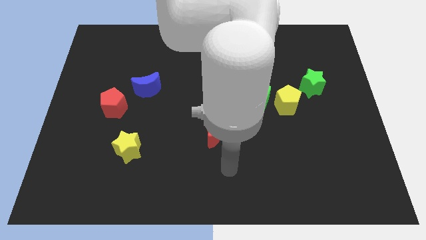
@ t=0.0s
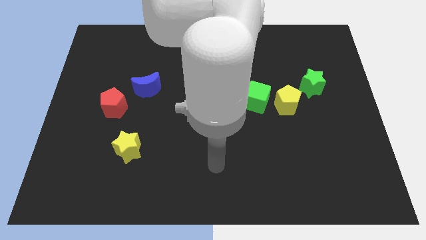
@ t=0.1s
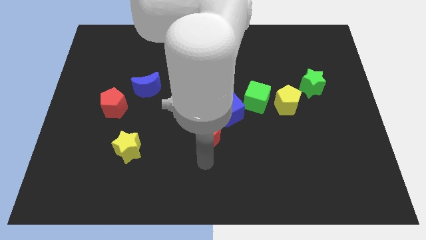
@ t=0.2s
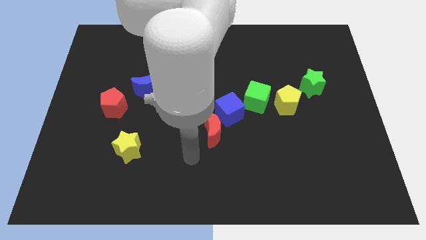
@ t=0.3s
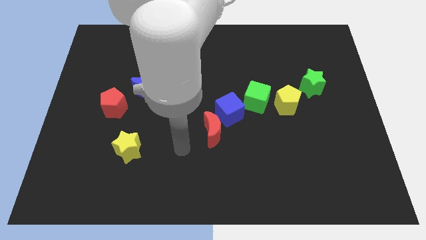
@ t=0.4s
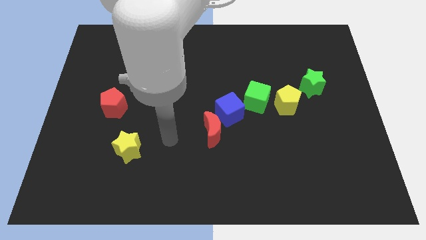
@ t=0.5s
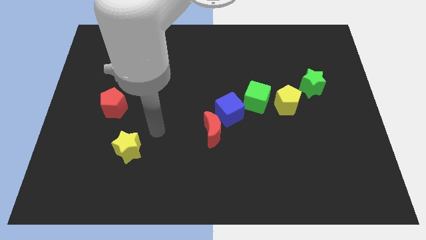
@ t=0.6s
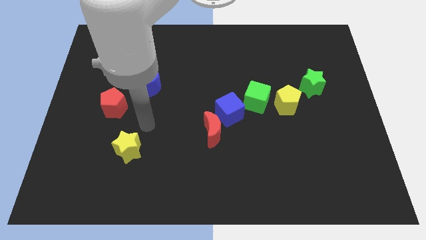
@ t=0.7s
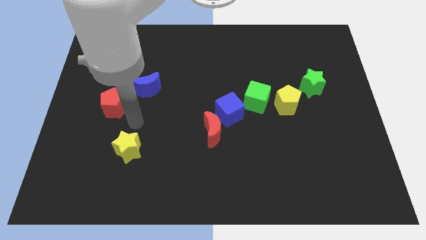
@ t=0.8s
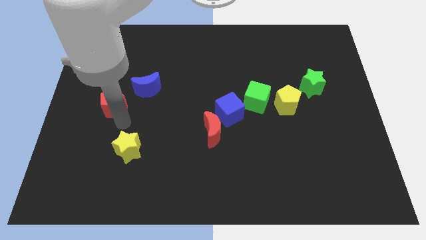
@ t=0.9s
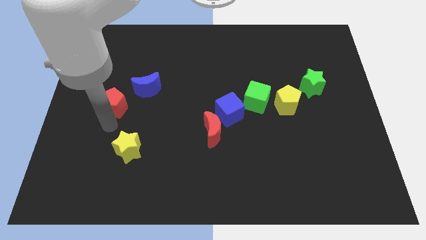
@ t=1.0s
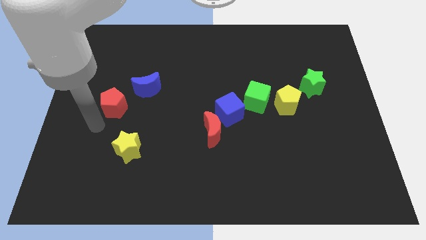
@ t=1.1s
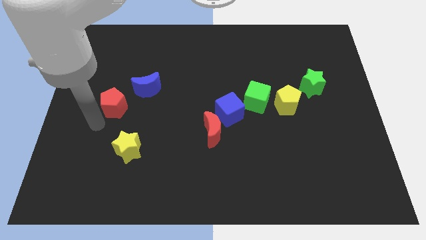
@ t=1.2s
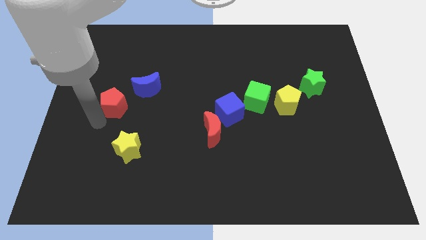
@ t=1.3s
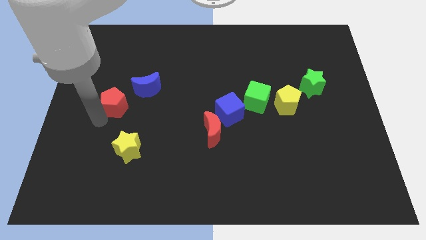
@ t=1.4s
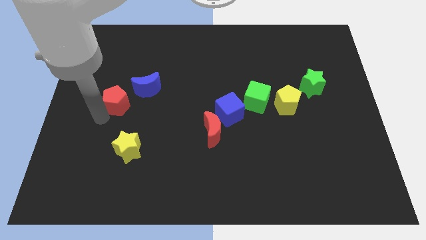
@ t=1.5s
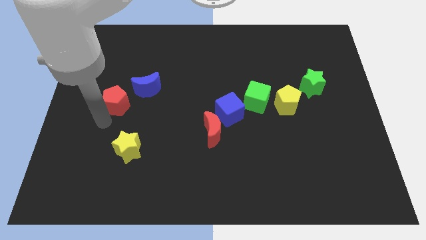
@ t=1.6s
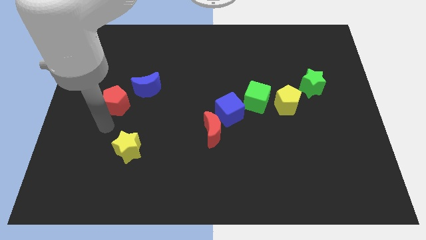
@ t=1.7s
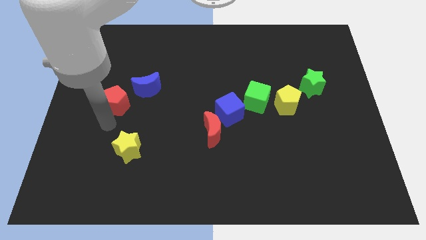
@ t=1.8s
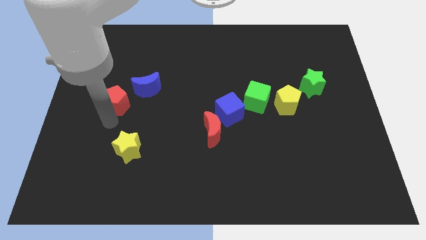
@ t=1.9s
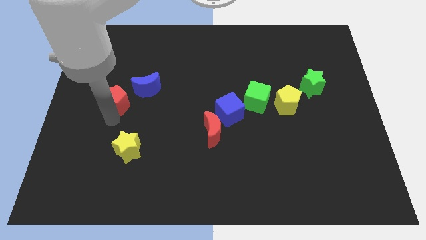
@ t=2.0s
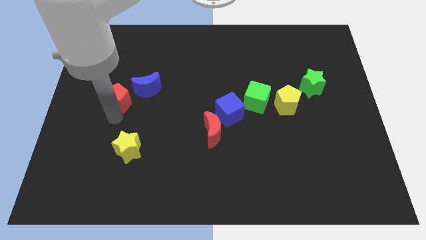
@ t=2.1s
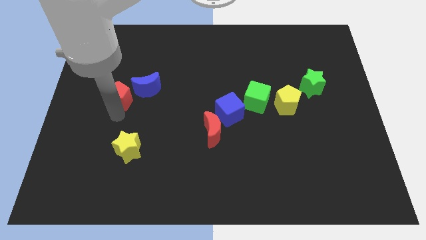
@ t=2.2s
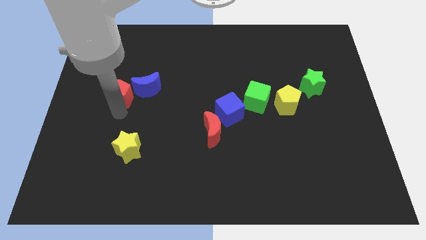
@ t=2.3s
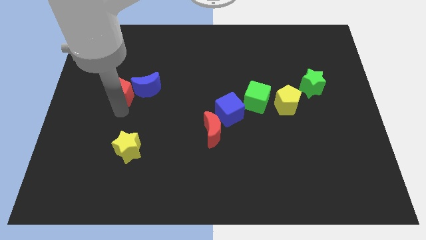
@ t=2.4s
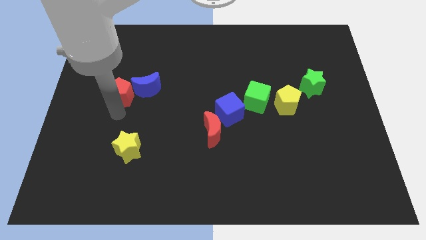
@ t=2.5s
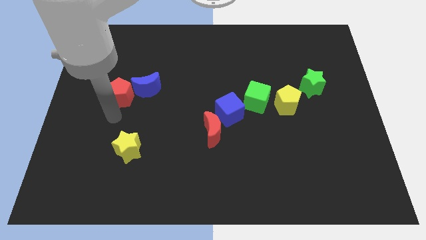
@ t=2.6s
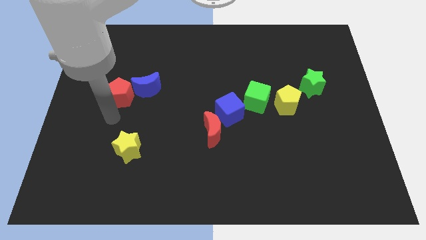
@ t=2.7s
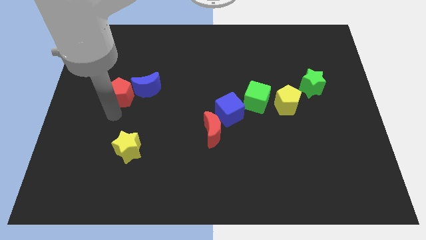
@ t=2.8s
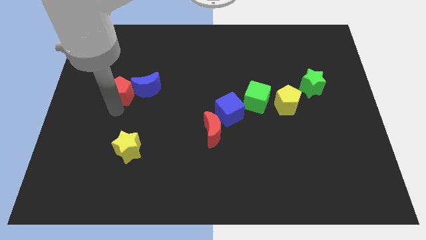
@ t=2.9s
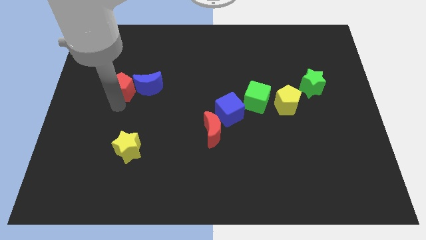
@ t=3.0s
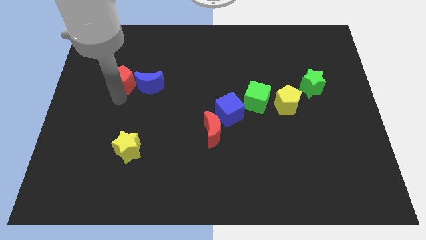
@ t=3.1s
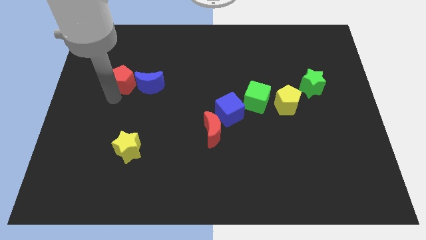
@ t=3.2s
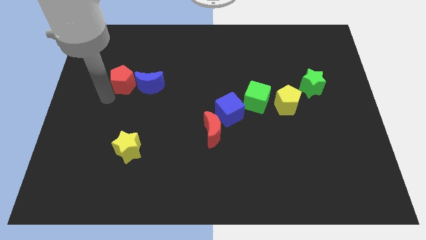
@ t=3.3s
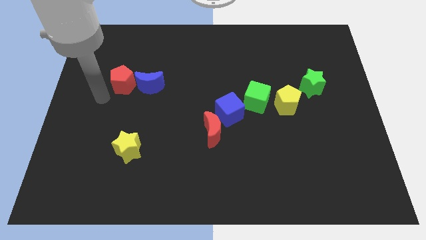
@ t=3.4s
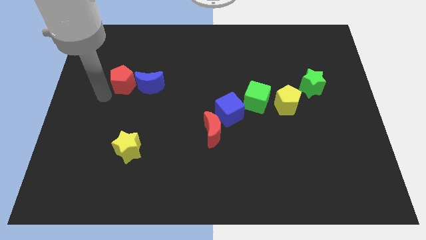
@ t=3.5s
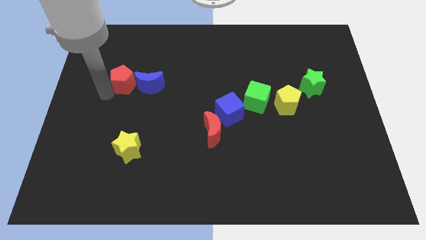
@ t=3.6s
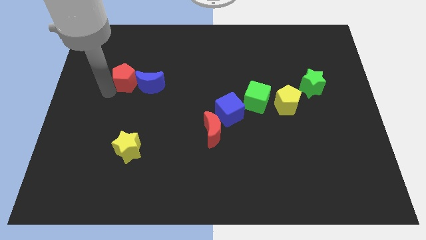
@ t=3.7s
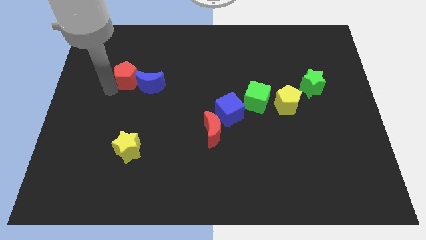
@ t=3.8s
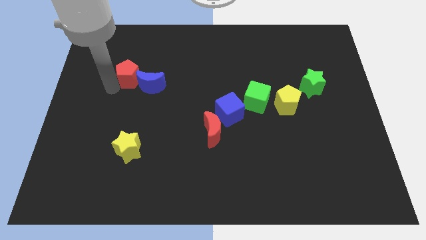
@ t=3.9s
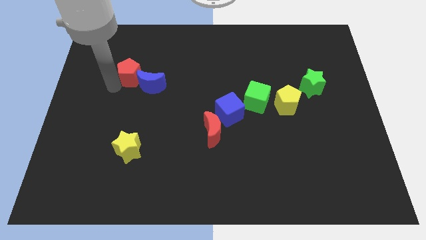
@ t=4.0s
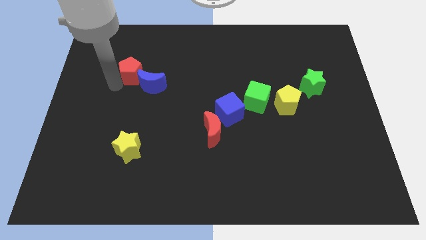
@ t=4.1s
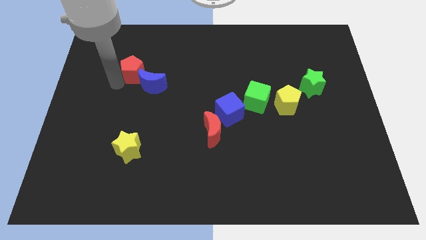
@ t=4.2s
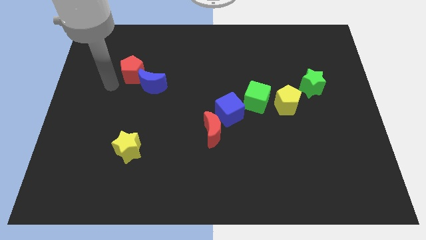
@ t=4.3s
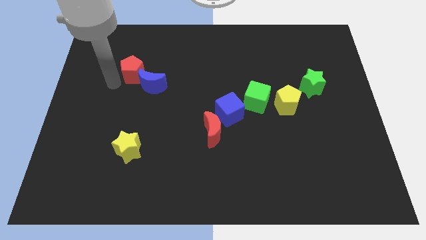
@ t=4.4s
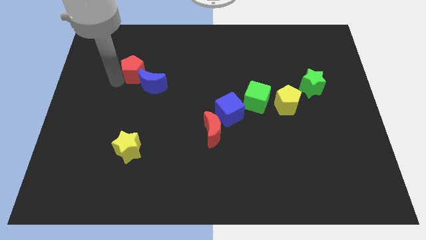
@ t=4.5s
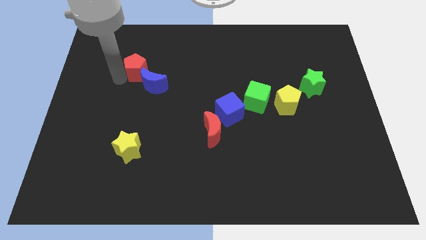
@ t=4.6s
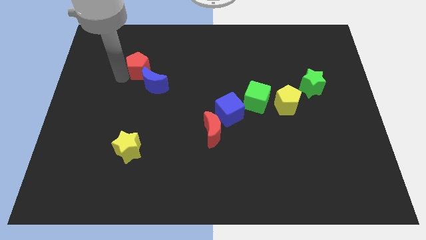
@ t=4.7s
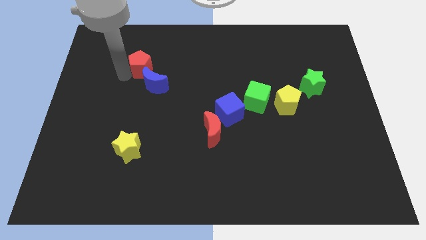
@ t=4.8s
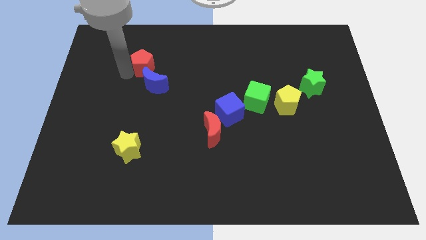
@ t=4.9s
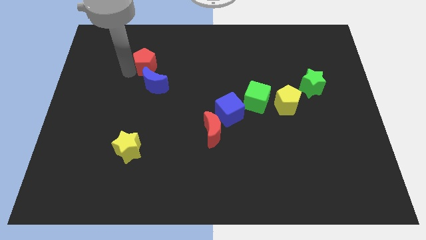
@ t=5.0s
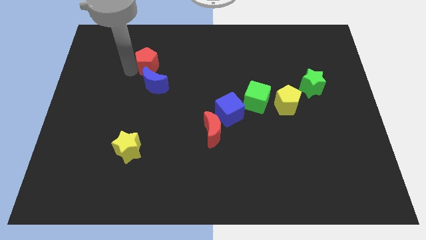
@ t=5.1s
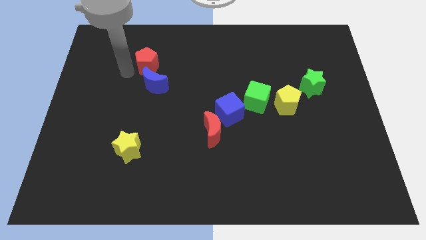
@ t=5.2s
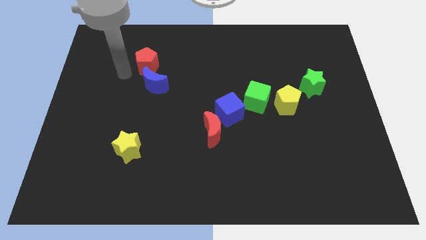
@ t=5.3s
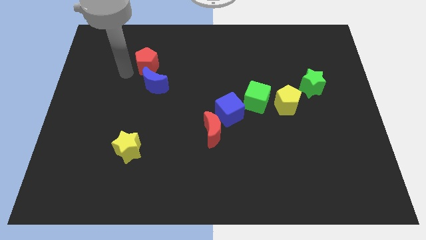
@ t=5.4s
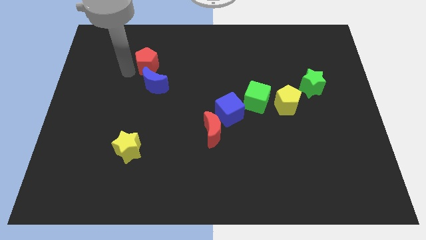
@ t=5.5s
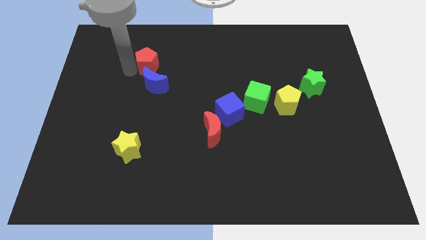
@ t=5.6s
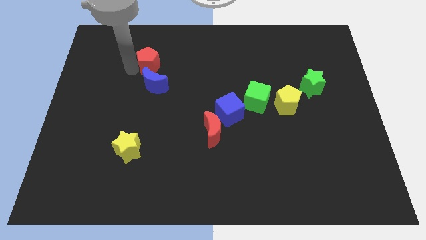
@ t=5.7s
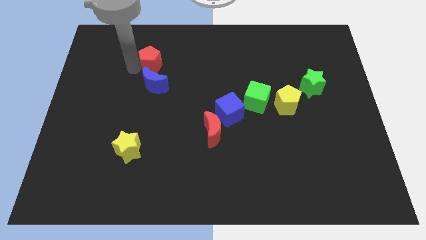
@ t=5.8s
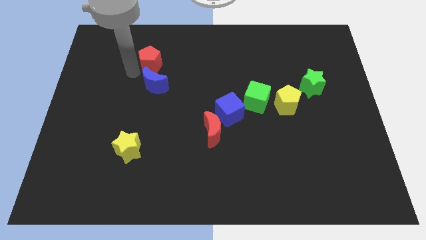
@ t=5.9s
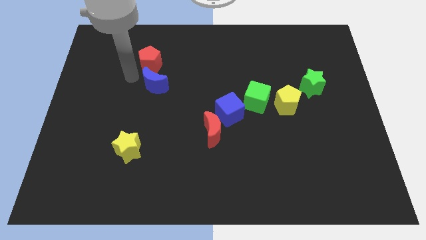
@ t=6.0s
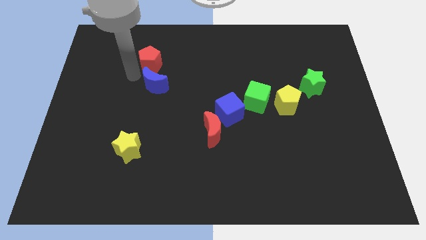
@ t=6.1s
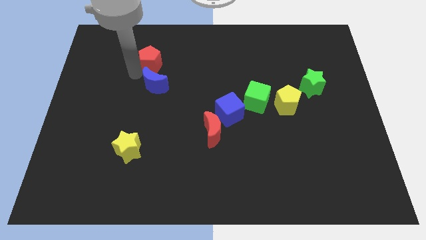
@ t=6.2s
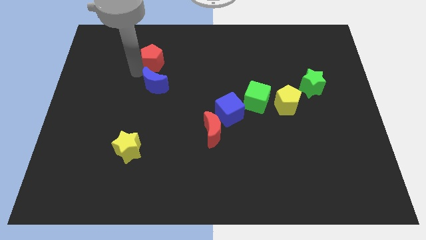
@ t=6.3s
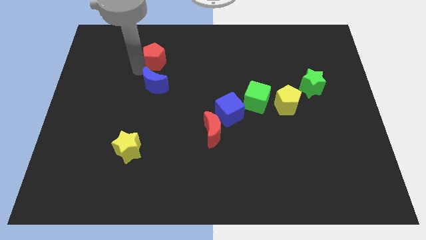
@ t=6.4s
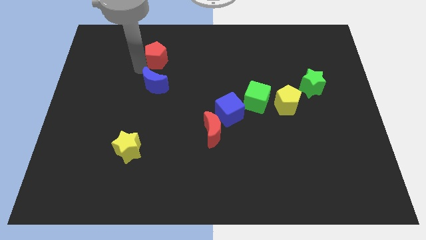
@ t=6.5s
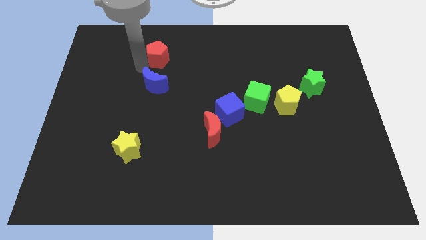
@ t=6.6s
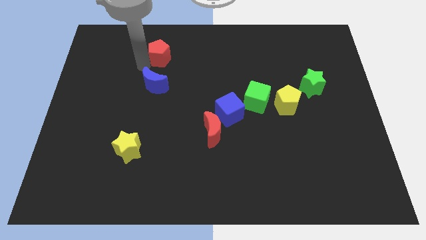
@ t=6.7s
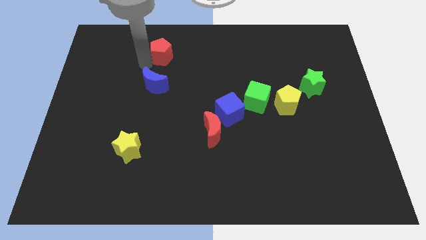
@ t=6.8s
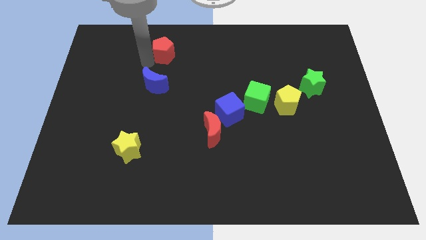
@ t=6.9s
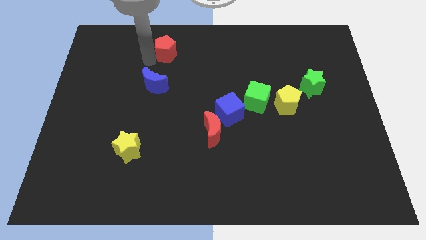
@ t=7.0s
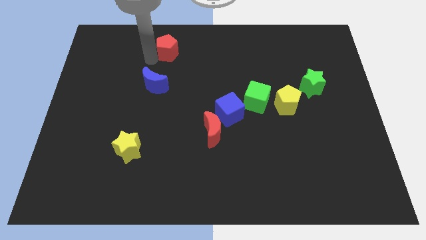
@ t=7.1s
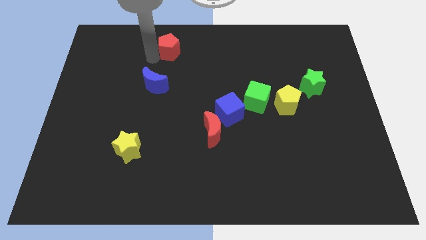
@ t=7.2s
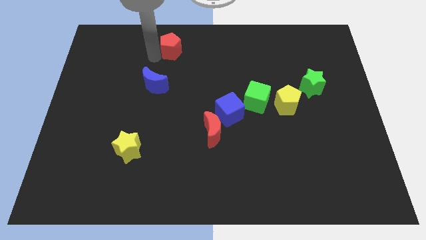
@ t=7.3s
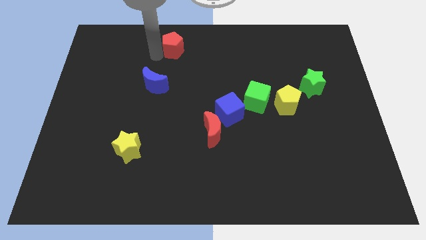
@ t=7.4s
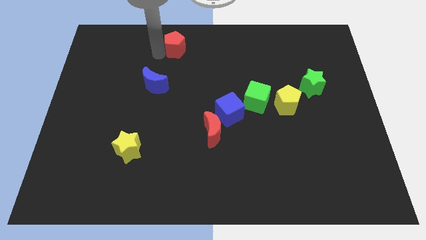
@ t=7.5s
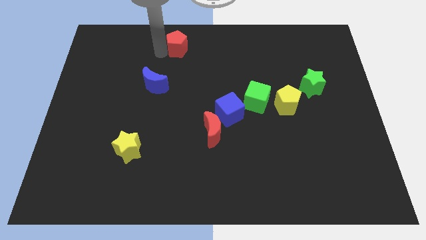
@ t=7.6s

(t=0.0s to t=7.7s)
slide the red pentagon to the top
